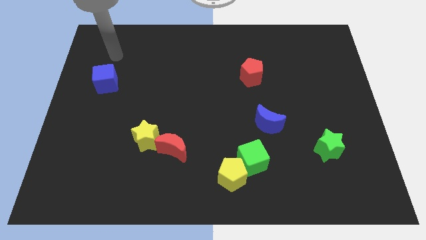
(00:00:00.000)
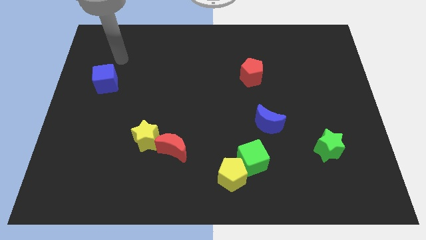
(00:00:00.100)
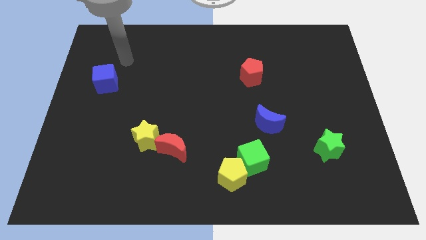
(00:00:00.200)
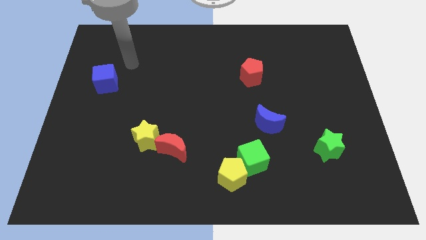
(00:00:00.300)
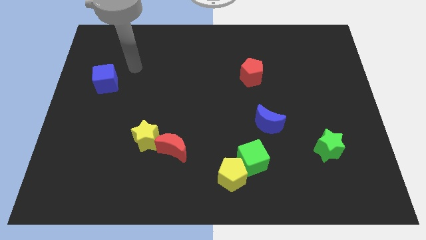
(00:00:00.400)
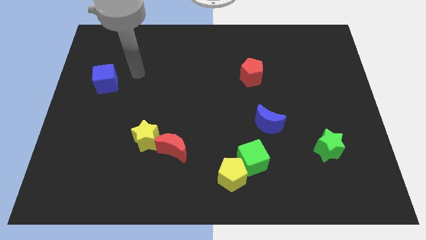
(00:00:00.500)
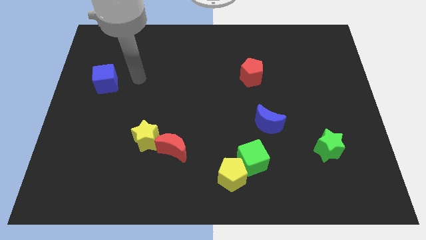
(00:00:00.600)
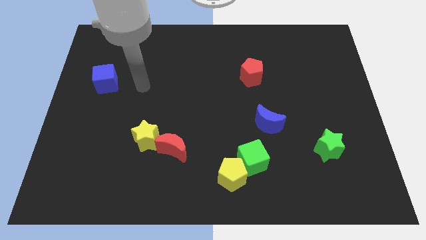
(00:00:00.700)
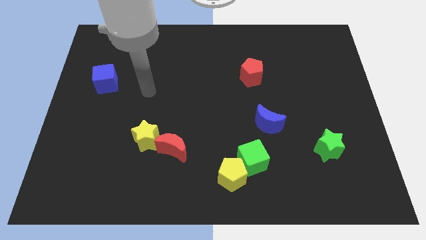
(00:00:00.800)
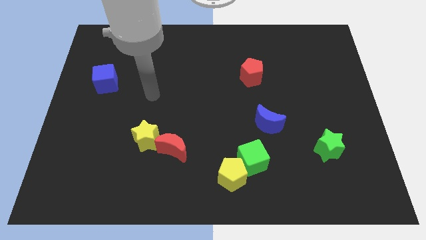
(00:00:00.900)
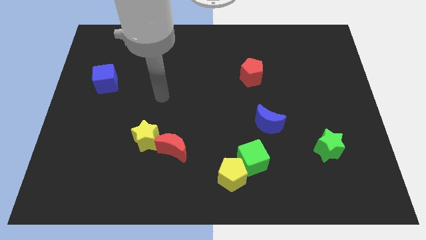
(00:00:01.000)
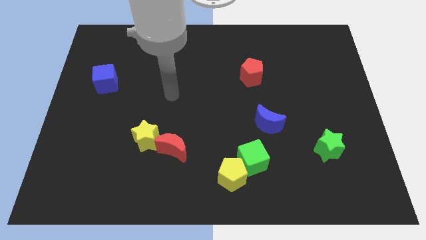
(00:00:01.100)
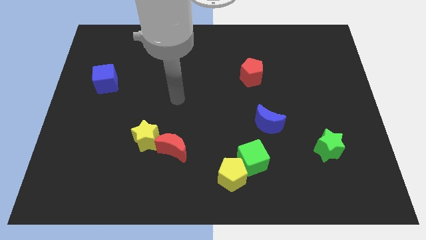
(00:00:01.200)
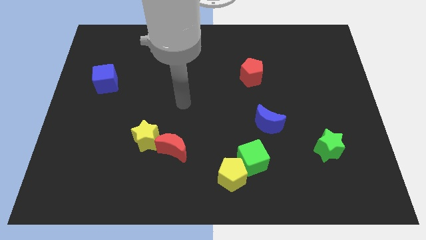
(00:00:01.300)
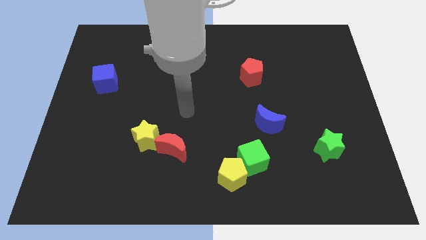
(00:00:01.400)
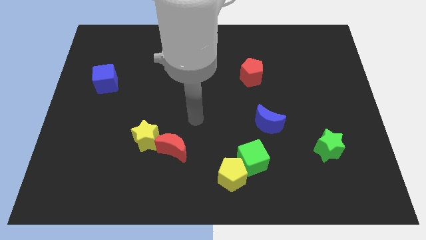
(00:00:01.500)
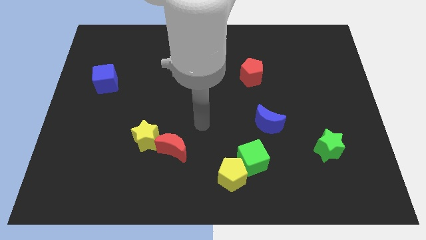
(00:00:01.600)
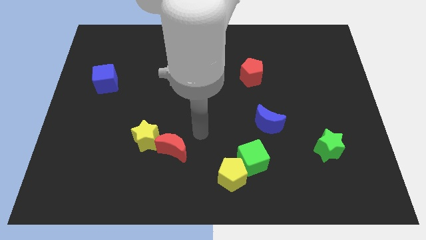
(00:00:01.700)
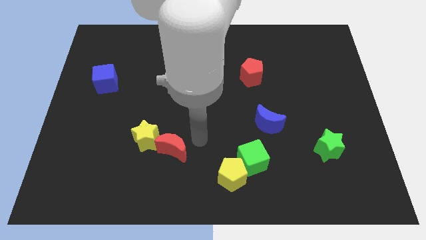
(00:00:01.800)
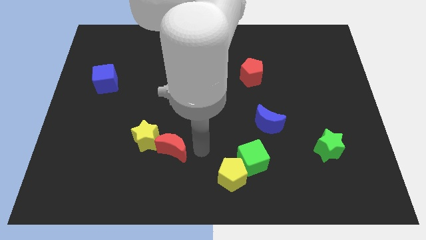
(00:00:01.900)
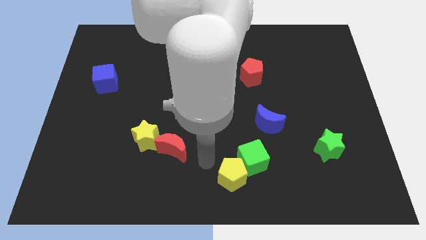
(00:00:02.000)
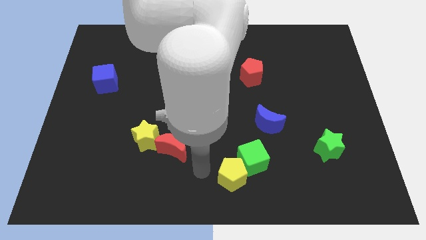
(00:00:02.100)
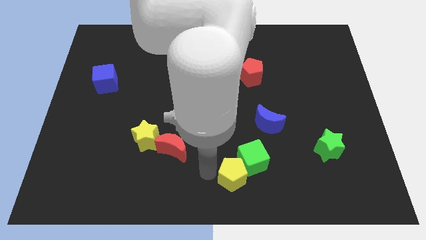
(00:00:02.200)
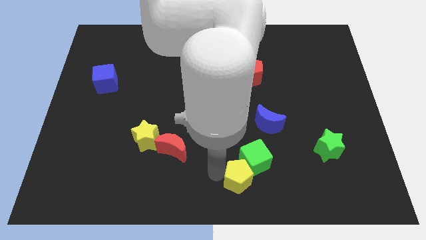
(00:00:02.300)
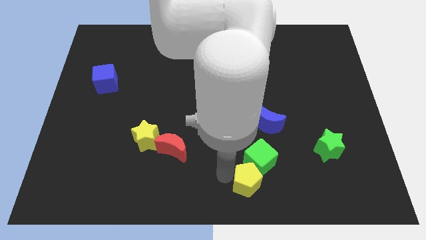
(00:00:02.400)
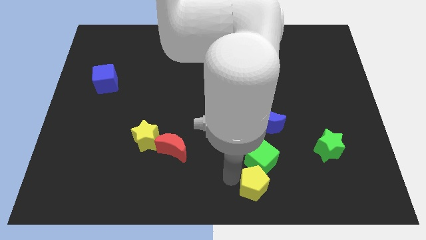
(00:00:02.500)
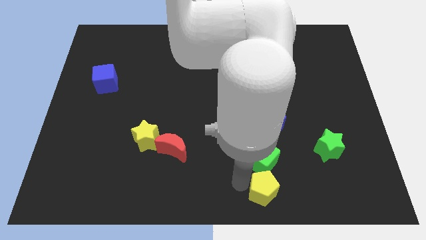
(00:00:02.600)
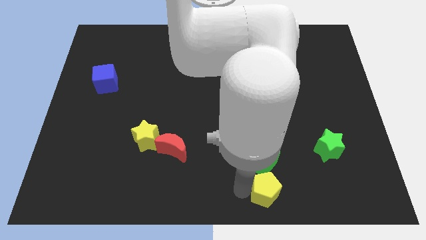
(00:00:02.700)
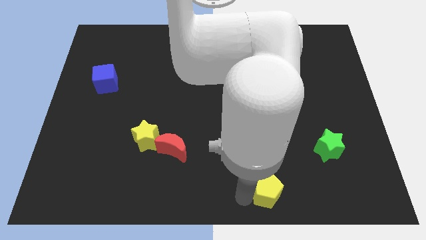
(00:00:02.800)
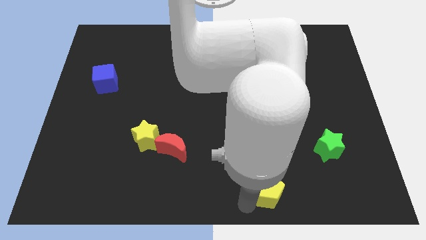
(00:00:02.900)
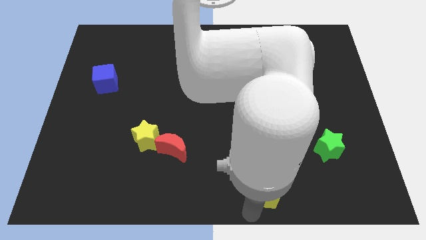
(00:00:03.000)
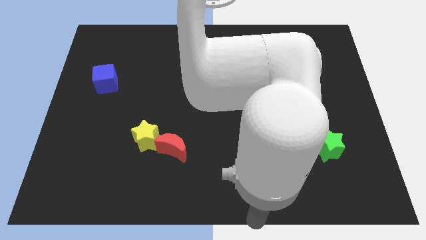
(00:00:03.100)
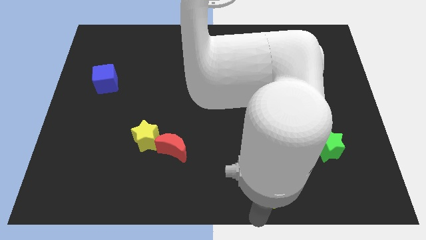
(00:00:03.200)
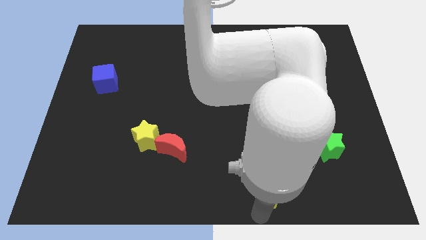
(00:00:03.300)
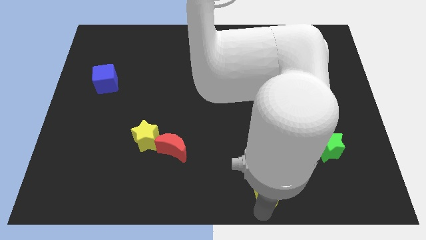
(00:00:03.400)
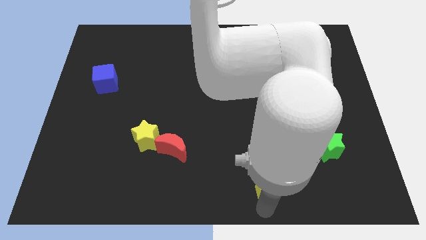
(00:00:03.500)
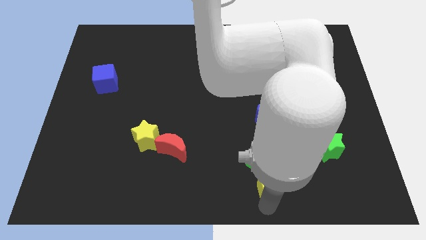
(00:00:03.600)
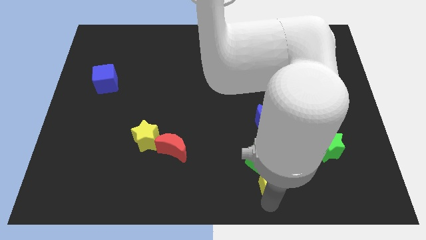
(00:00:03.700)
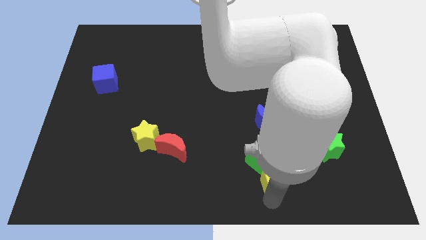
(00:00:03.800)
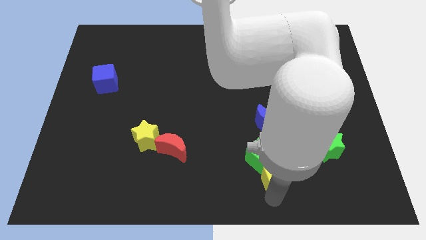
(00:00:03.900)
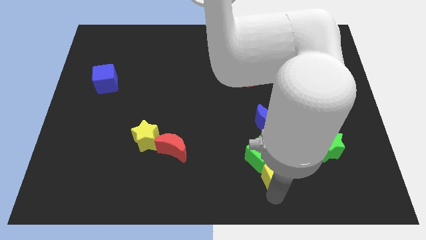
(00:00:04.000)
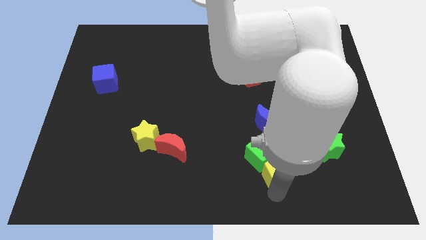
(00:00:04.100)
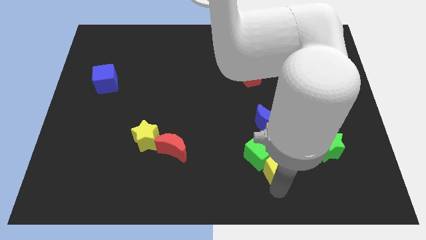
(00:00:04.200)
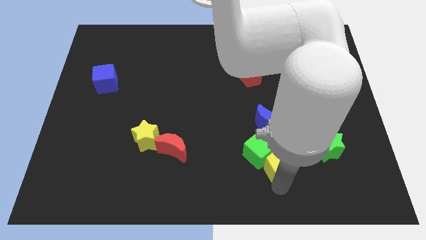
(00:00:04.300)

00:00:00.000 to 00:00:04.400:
slightly push the yellow pentagon diagonally up and to the right

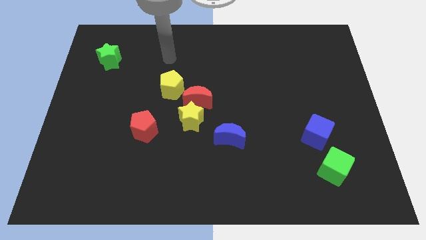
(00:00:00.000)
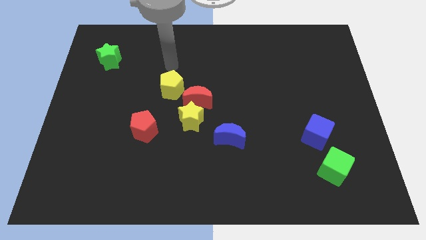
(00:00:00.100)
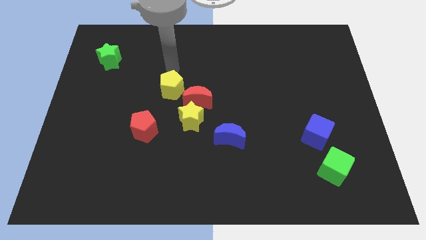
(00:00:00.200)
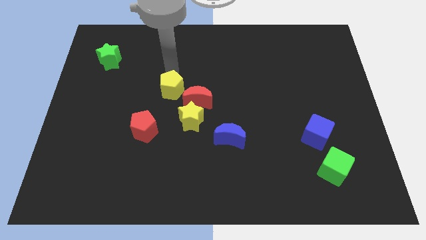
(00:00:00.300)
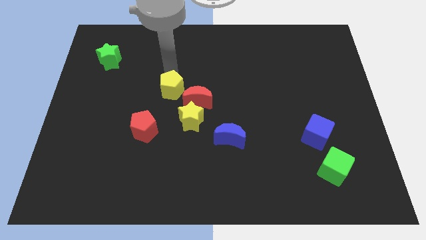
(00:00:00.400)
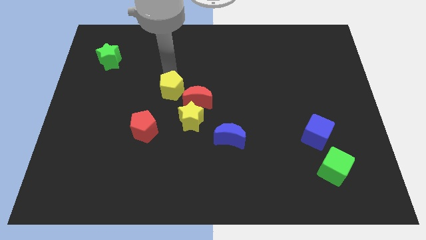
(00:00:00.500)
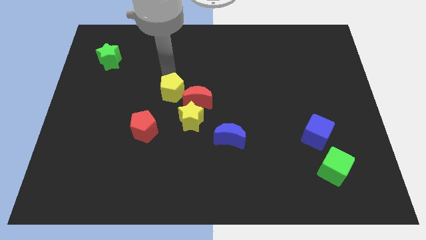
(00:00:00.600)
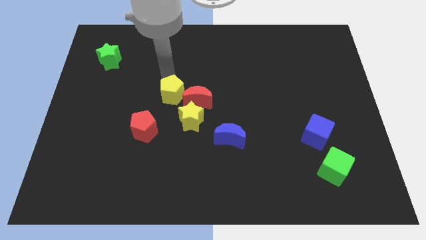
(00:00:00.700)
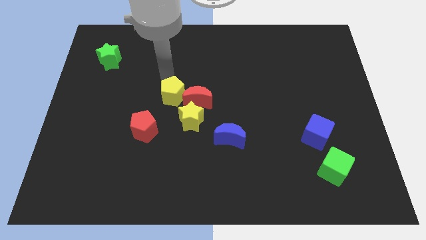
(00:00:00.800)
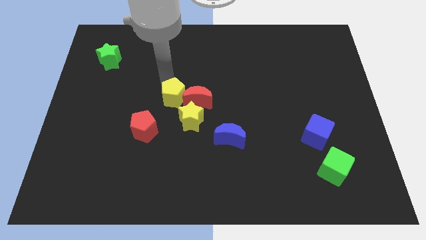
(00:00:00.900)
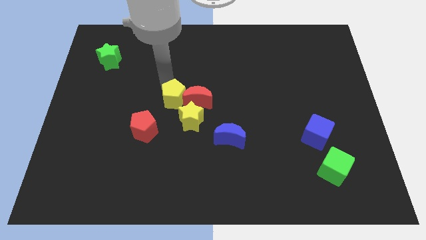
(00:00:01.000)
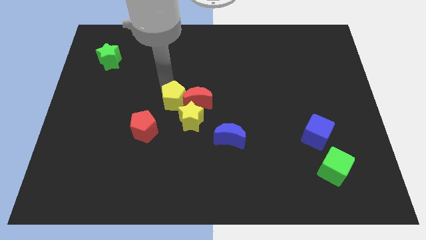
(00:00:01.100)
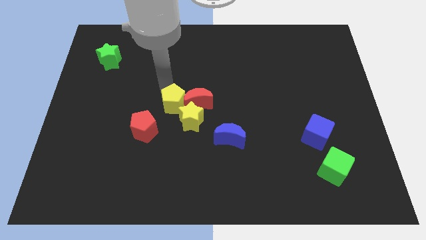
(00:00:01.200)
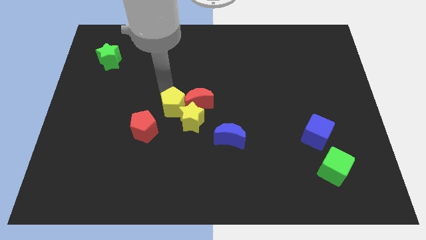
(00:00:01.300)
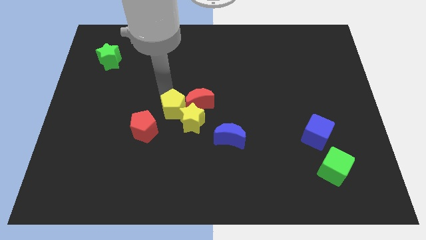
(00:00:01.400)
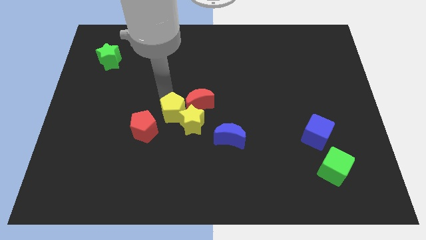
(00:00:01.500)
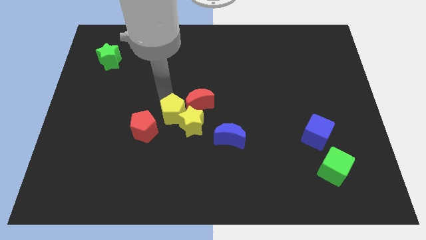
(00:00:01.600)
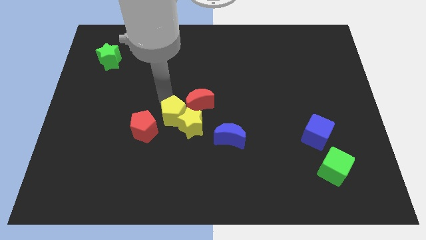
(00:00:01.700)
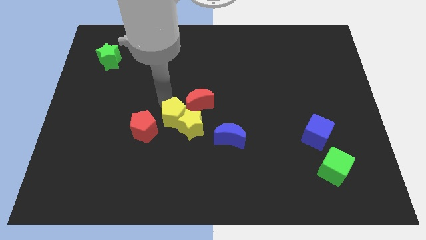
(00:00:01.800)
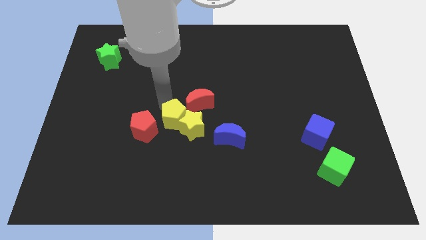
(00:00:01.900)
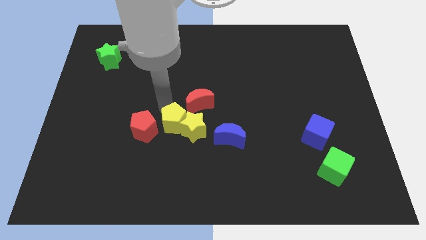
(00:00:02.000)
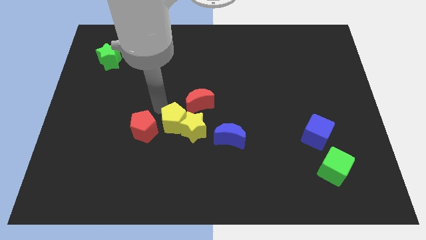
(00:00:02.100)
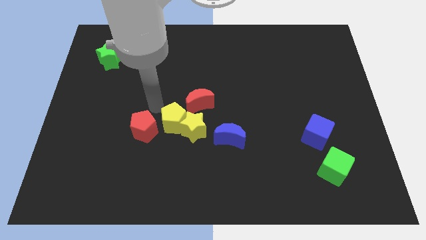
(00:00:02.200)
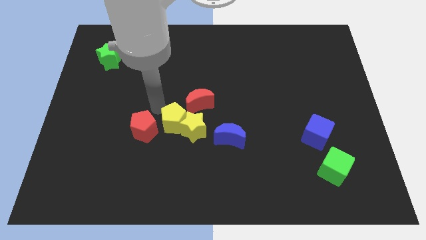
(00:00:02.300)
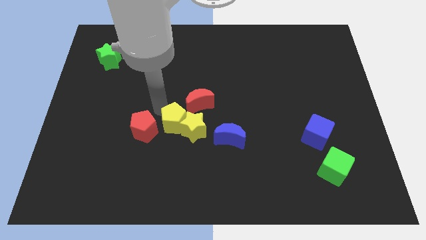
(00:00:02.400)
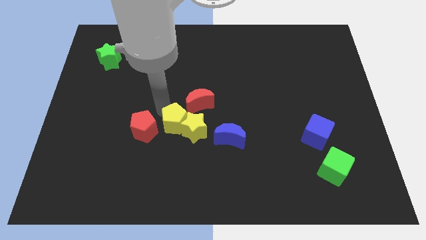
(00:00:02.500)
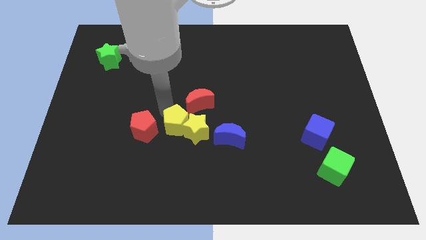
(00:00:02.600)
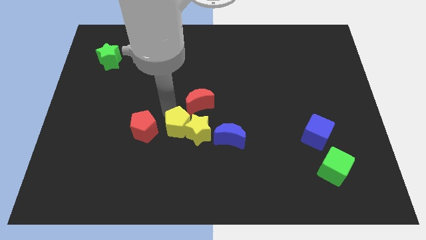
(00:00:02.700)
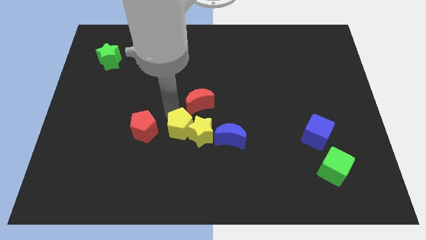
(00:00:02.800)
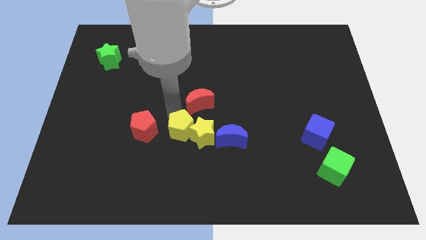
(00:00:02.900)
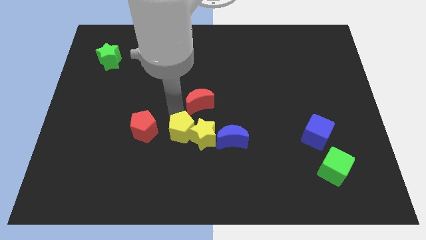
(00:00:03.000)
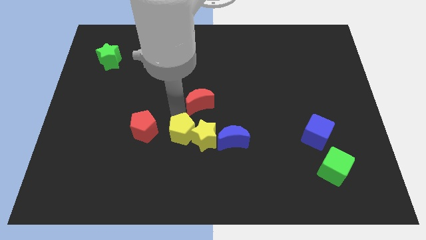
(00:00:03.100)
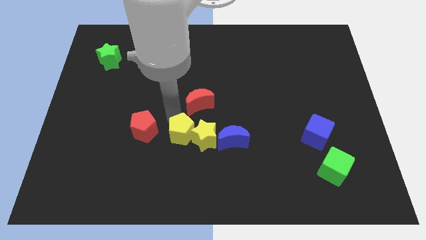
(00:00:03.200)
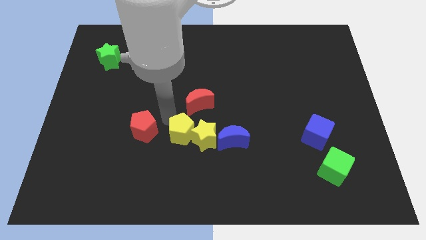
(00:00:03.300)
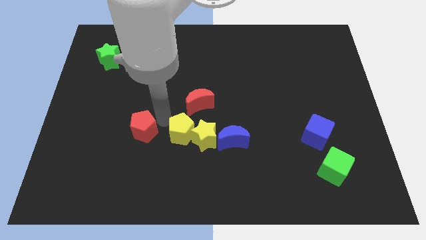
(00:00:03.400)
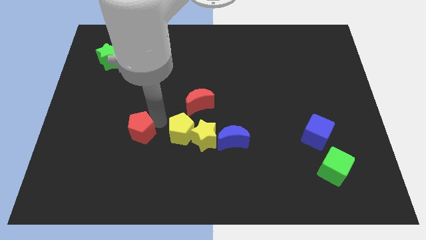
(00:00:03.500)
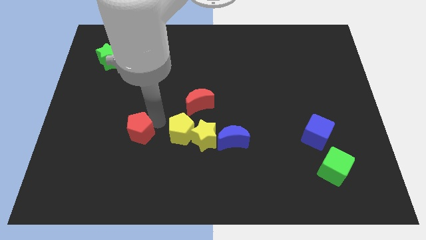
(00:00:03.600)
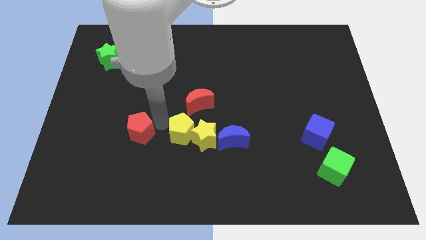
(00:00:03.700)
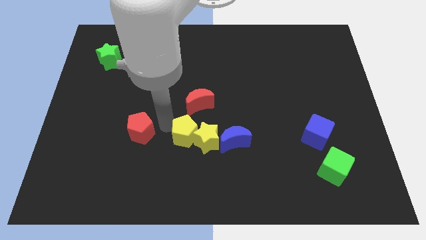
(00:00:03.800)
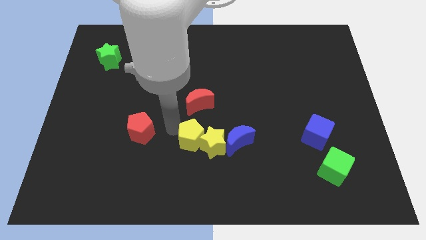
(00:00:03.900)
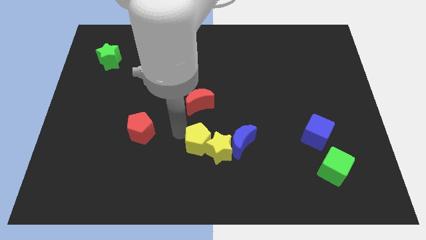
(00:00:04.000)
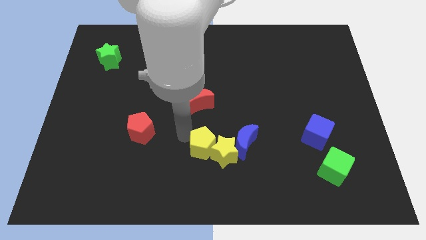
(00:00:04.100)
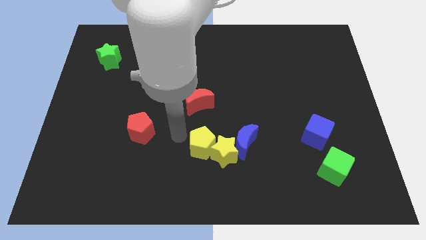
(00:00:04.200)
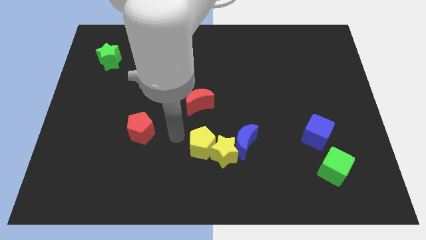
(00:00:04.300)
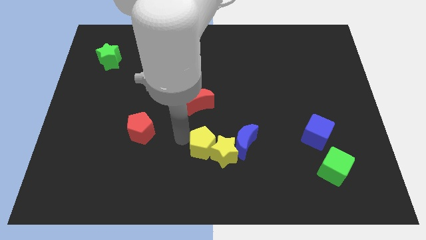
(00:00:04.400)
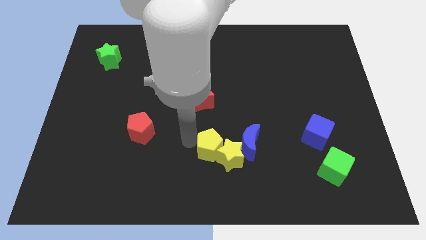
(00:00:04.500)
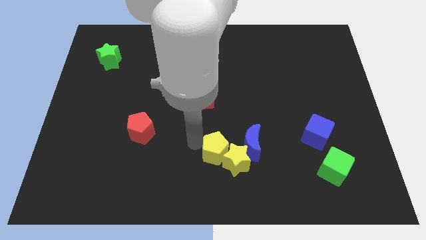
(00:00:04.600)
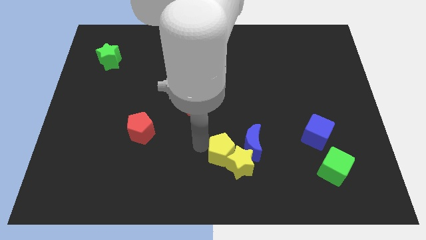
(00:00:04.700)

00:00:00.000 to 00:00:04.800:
push the yellow pentagon down and then to the right
